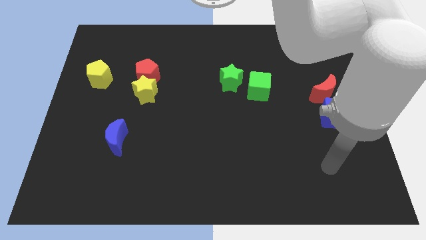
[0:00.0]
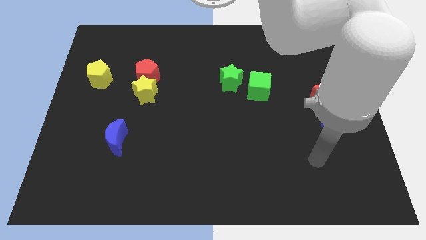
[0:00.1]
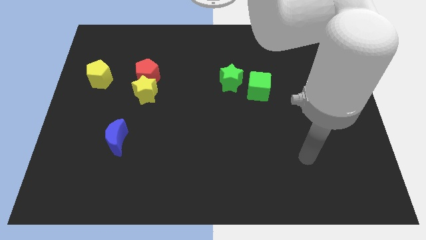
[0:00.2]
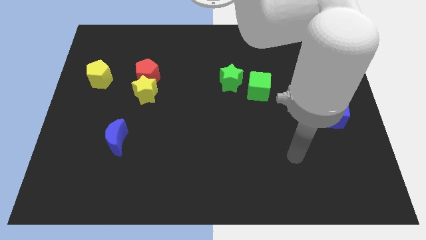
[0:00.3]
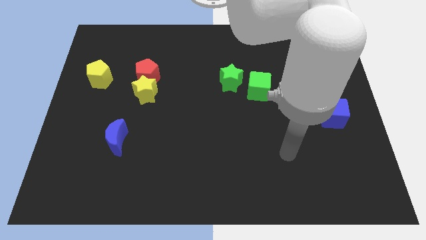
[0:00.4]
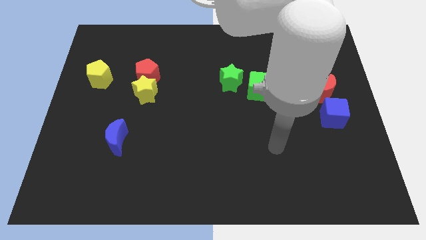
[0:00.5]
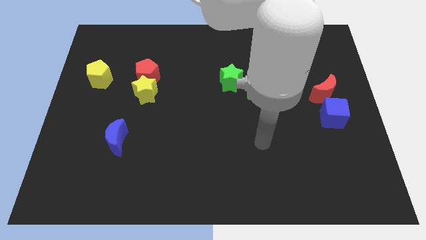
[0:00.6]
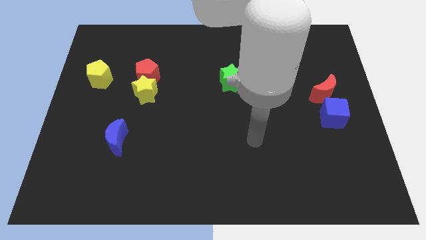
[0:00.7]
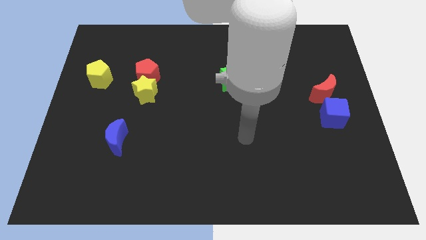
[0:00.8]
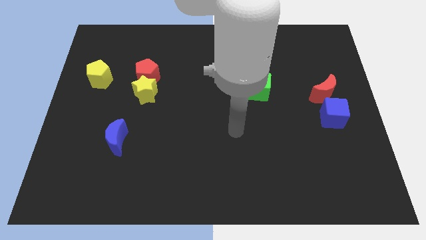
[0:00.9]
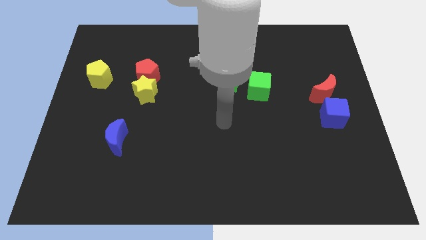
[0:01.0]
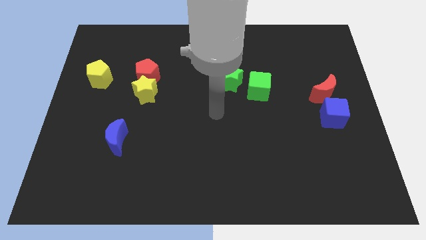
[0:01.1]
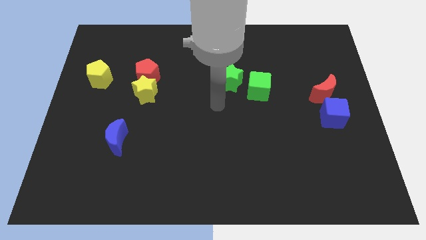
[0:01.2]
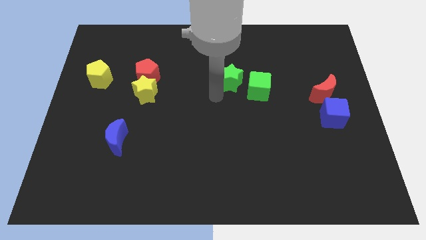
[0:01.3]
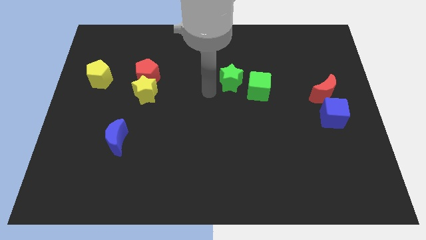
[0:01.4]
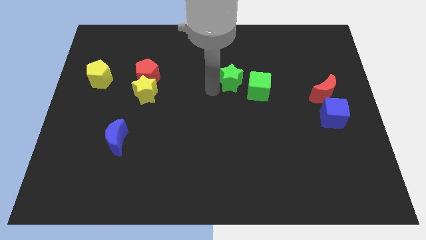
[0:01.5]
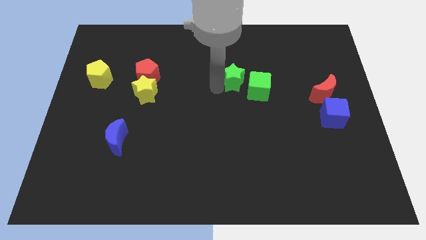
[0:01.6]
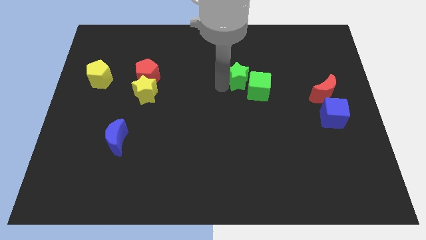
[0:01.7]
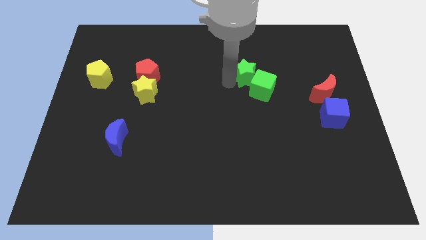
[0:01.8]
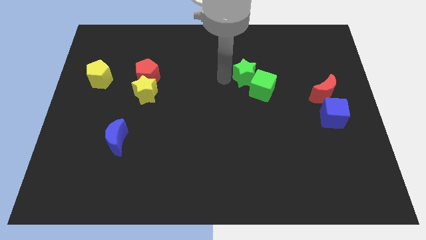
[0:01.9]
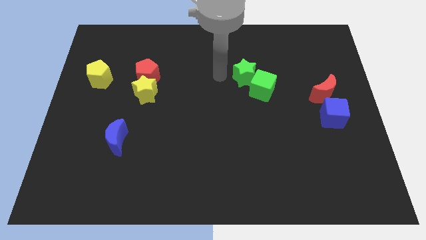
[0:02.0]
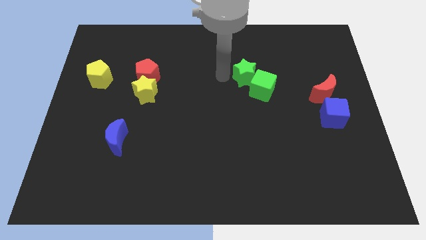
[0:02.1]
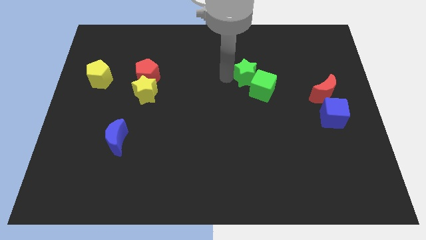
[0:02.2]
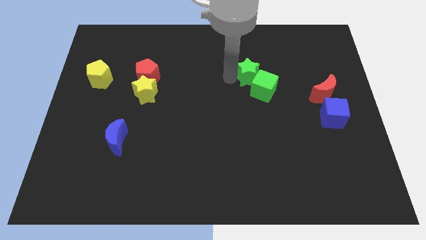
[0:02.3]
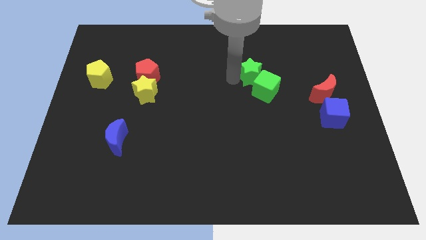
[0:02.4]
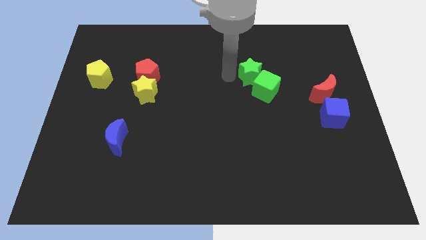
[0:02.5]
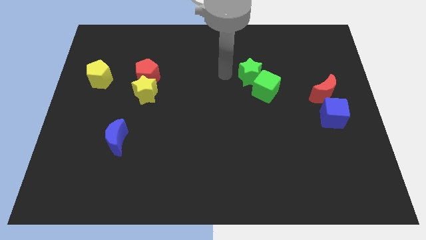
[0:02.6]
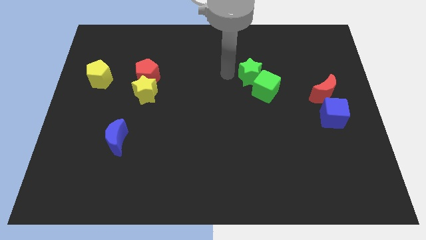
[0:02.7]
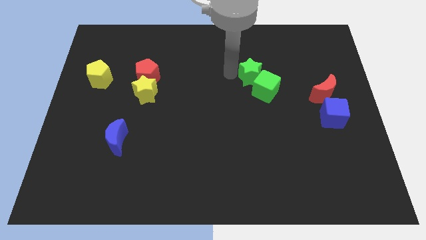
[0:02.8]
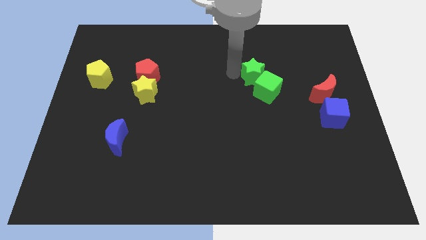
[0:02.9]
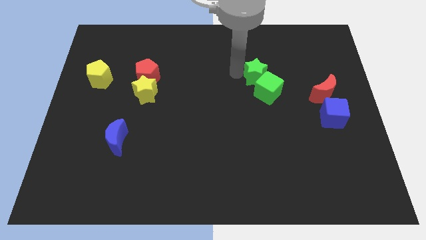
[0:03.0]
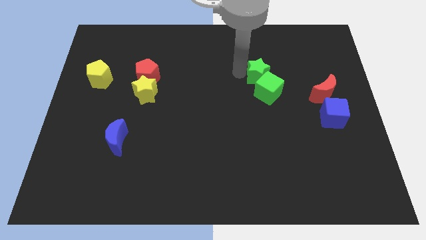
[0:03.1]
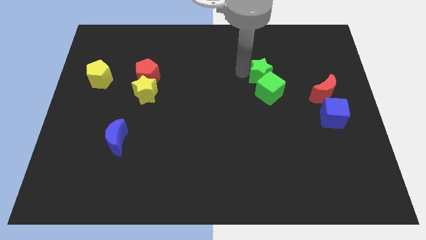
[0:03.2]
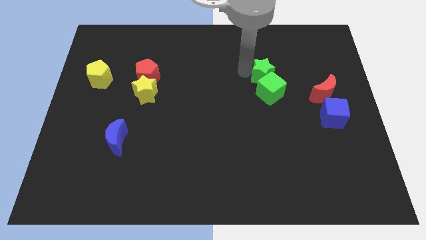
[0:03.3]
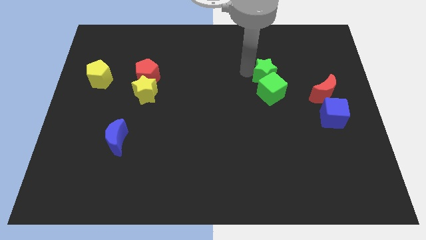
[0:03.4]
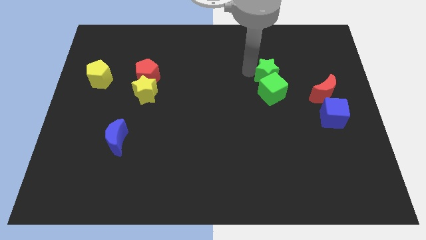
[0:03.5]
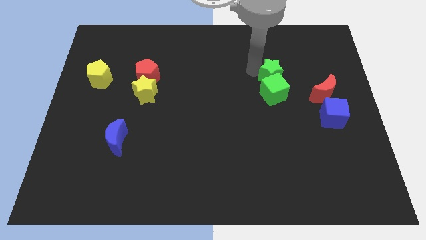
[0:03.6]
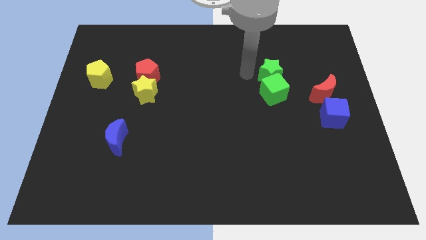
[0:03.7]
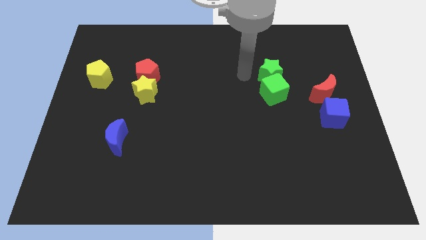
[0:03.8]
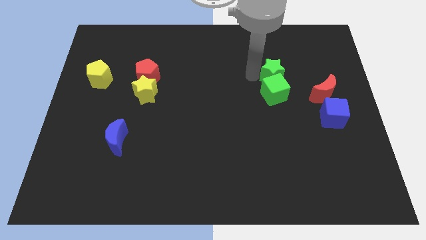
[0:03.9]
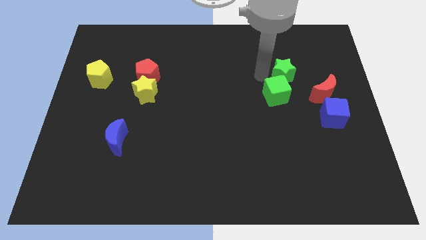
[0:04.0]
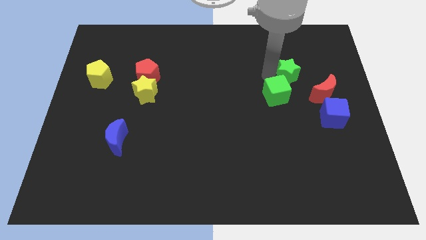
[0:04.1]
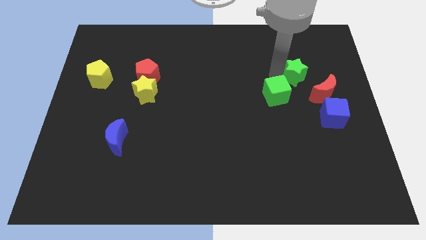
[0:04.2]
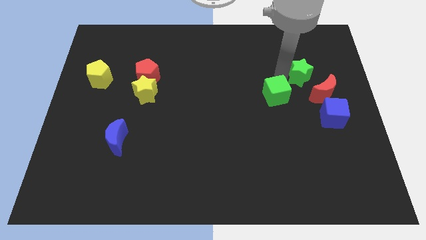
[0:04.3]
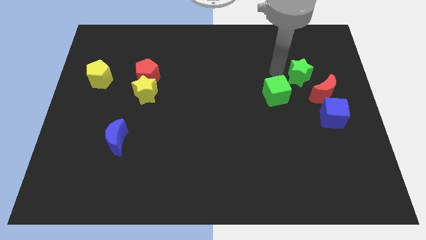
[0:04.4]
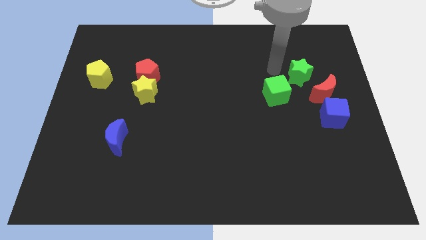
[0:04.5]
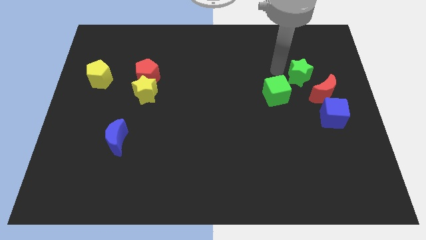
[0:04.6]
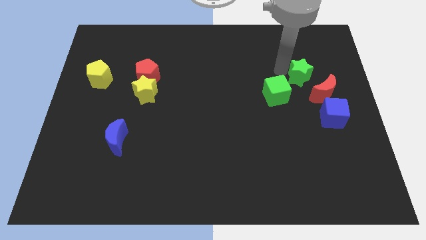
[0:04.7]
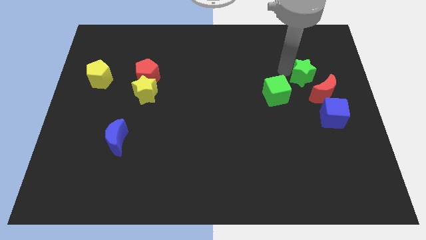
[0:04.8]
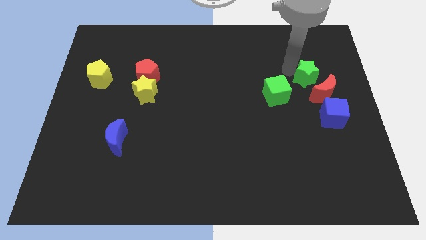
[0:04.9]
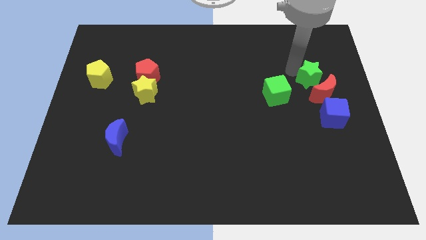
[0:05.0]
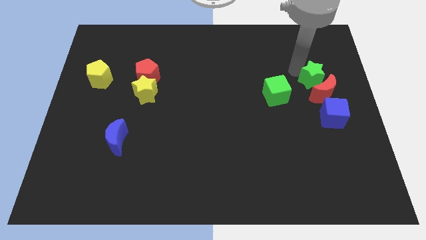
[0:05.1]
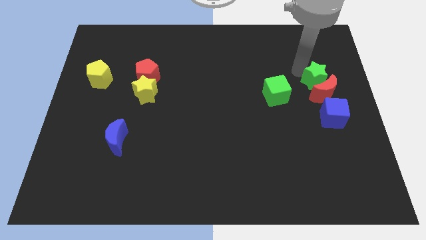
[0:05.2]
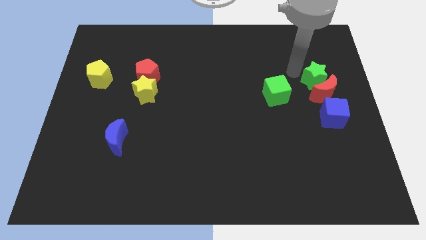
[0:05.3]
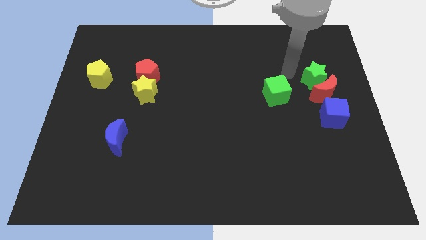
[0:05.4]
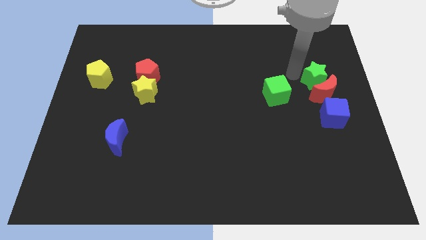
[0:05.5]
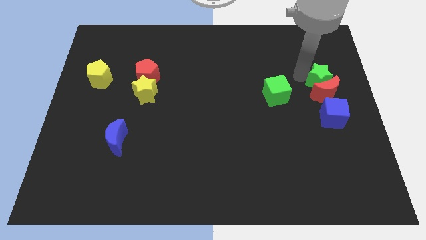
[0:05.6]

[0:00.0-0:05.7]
put the green star to the center right

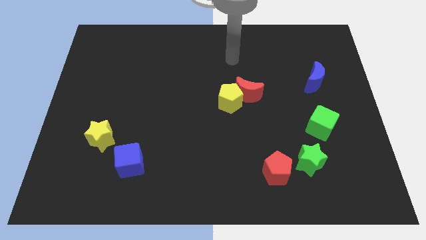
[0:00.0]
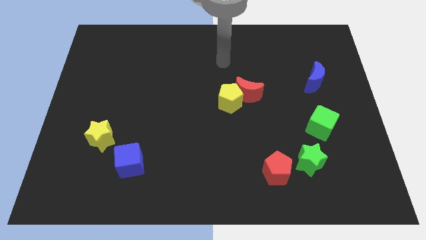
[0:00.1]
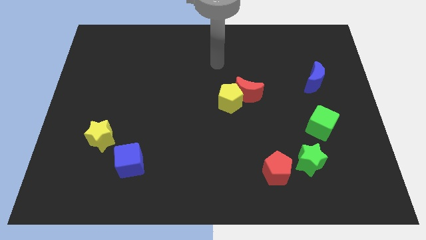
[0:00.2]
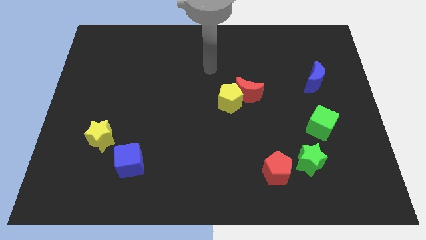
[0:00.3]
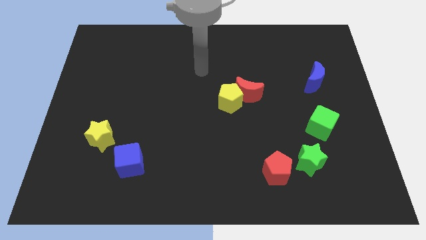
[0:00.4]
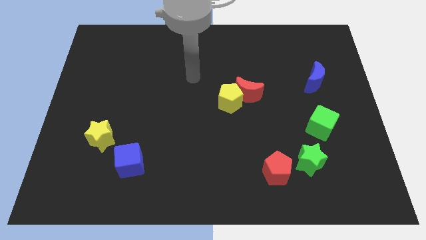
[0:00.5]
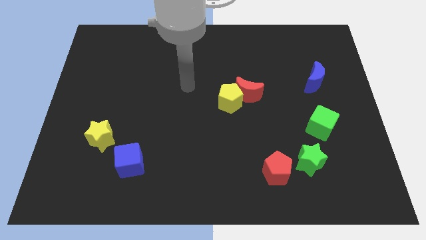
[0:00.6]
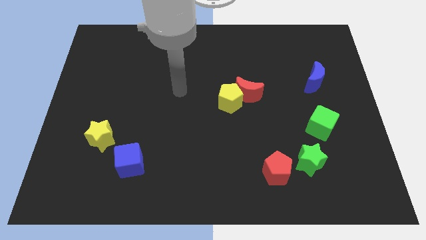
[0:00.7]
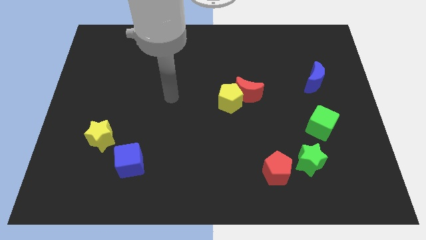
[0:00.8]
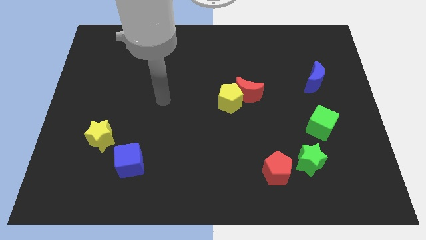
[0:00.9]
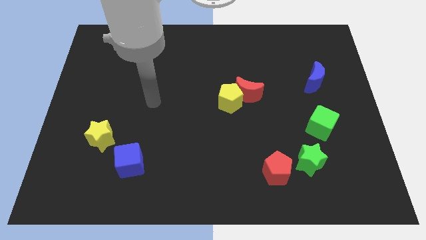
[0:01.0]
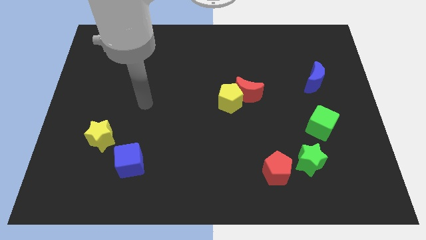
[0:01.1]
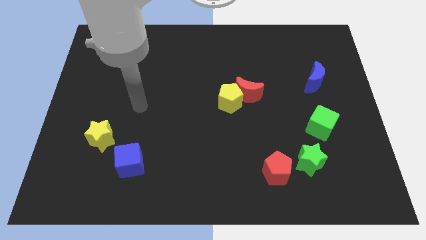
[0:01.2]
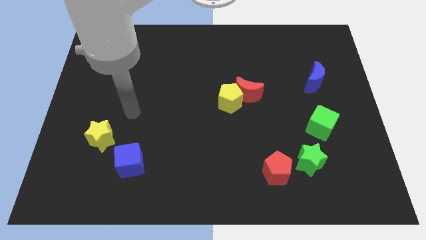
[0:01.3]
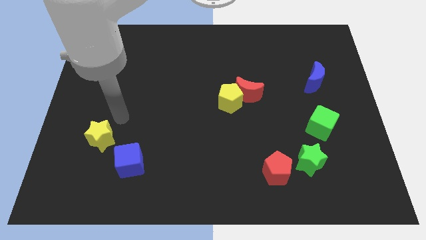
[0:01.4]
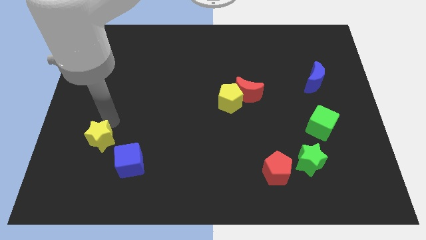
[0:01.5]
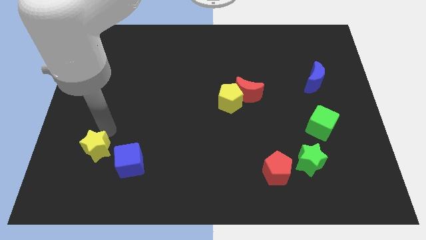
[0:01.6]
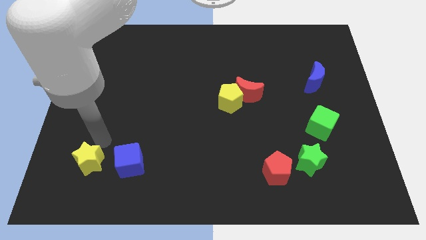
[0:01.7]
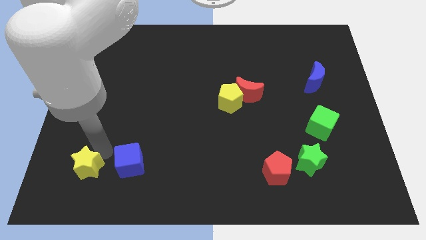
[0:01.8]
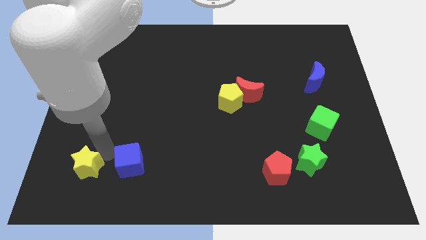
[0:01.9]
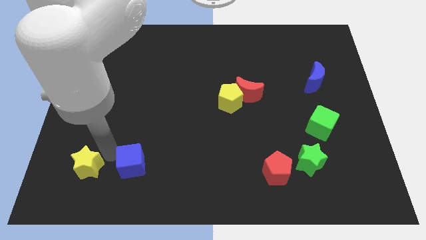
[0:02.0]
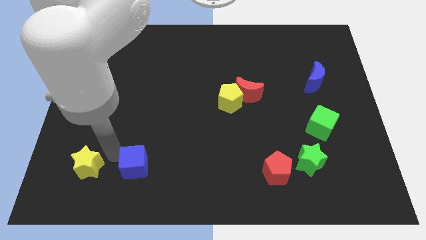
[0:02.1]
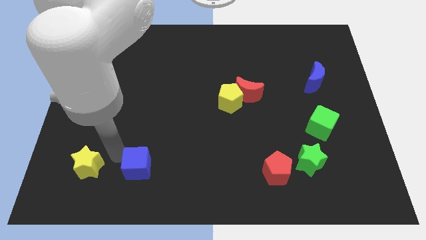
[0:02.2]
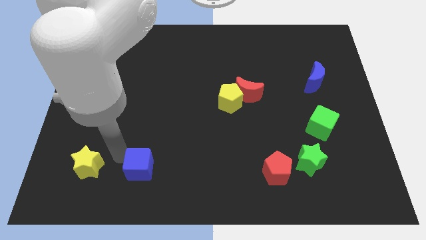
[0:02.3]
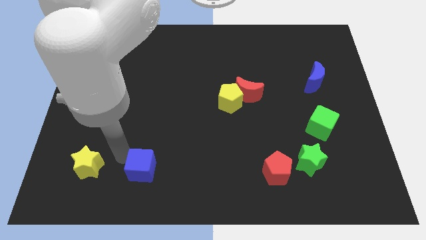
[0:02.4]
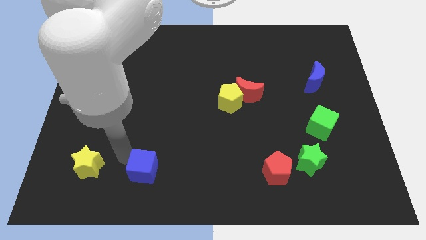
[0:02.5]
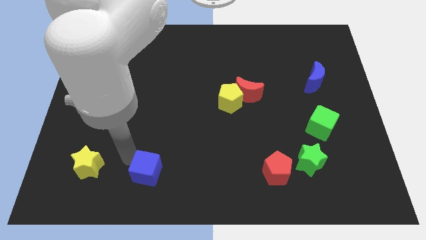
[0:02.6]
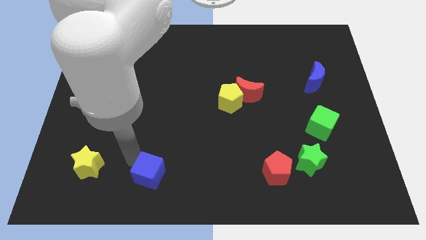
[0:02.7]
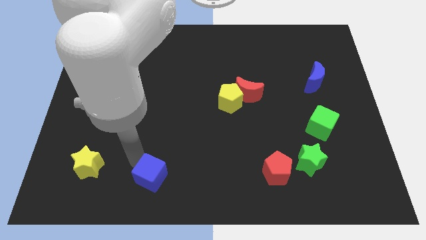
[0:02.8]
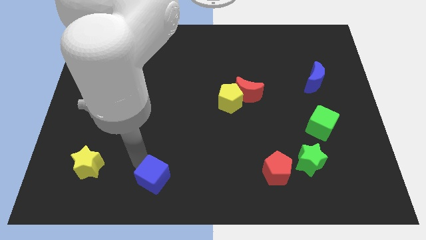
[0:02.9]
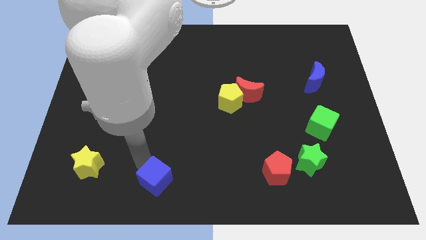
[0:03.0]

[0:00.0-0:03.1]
move the blue cube to the bottom
